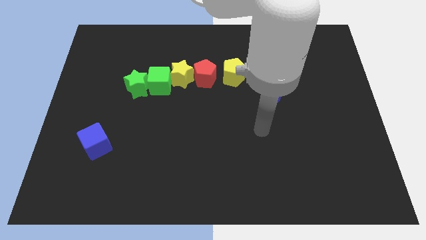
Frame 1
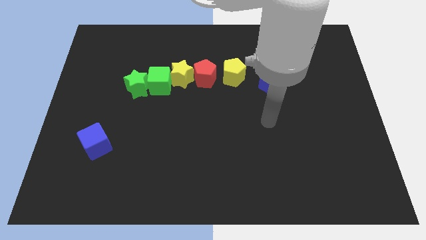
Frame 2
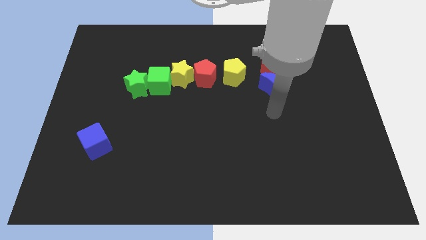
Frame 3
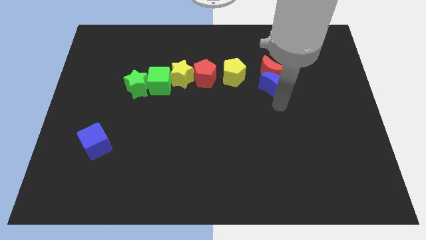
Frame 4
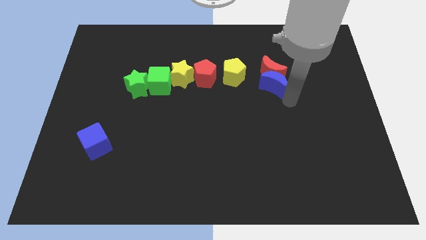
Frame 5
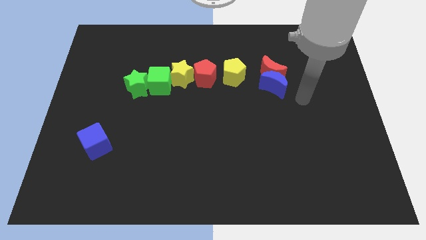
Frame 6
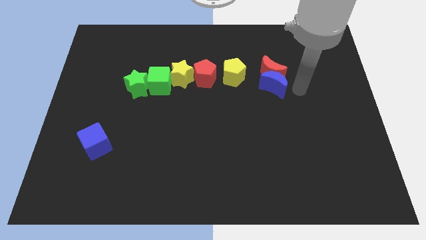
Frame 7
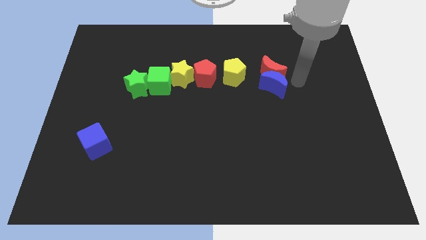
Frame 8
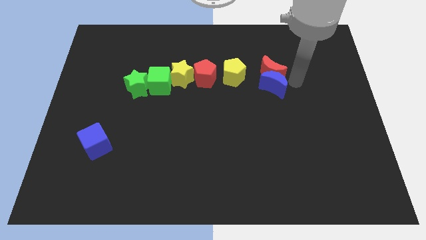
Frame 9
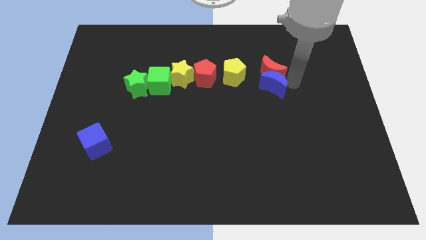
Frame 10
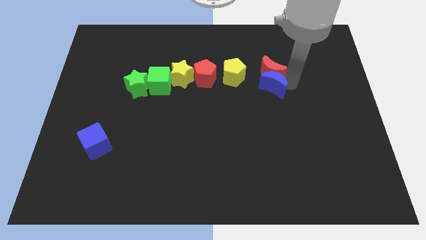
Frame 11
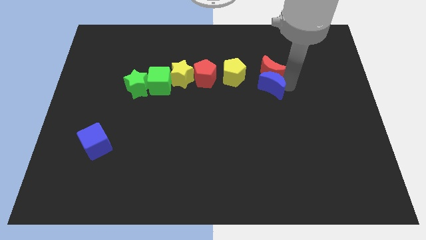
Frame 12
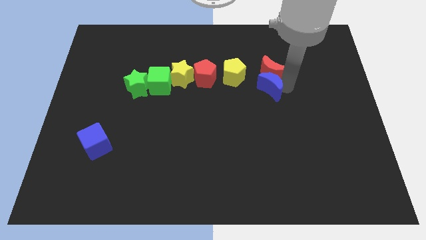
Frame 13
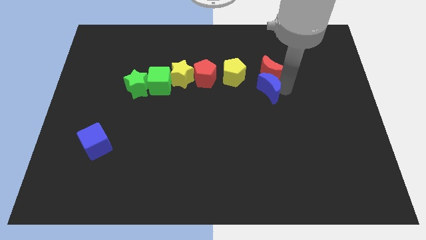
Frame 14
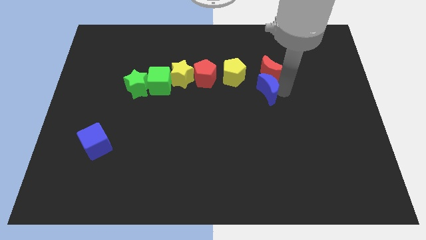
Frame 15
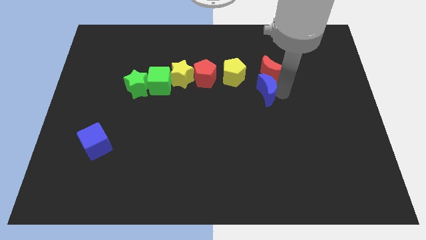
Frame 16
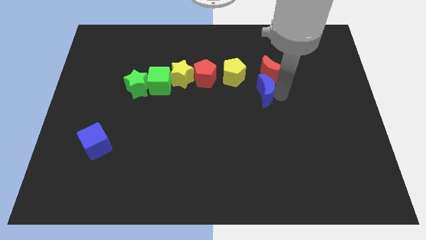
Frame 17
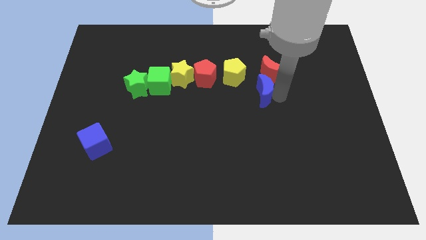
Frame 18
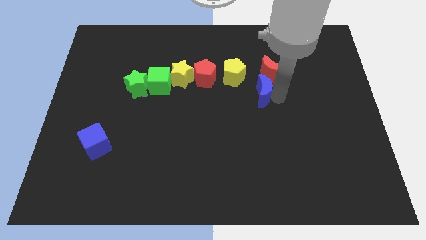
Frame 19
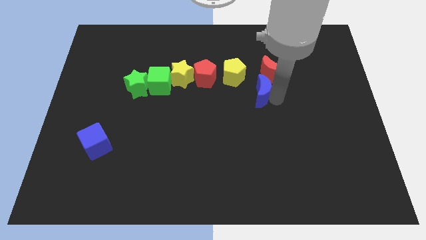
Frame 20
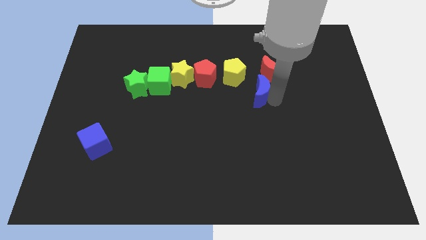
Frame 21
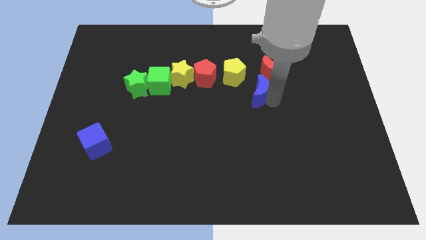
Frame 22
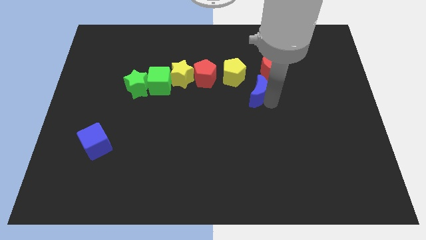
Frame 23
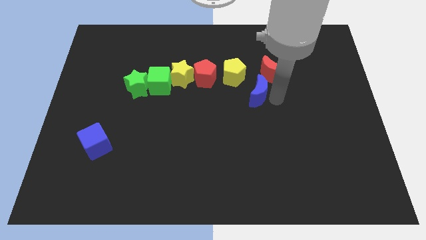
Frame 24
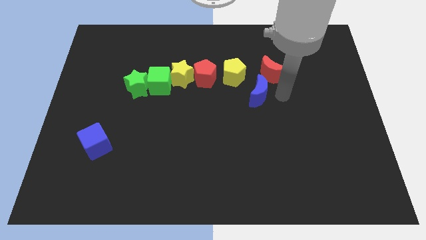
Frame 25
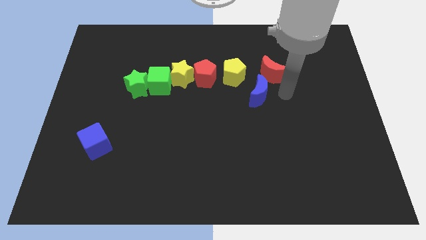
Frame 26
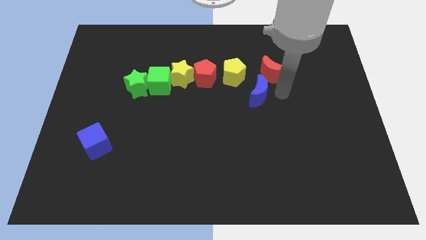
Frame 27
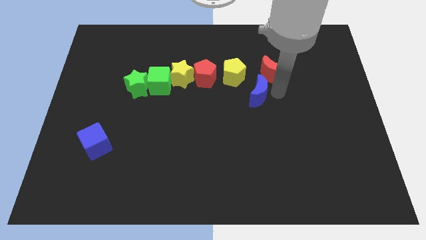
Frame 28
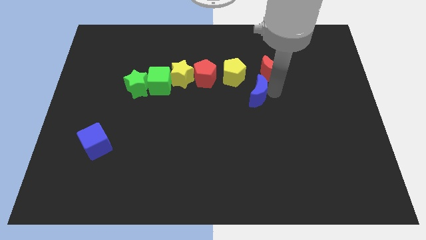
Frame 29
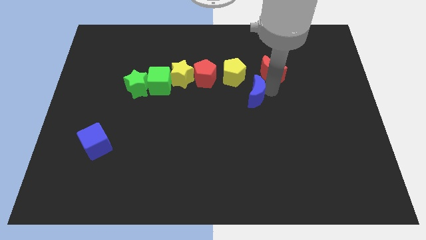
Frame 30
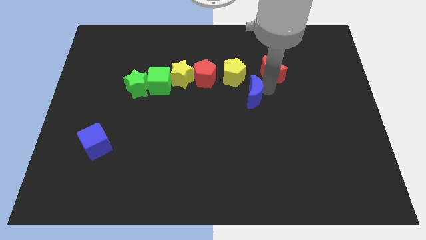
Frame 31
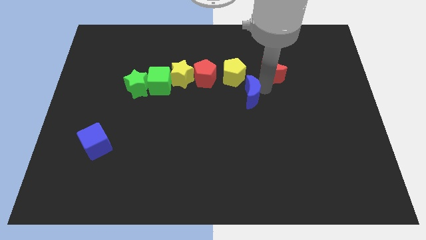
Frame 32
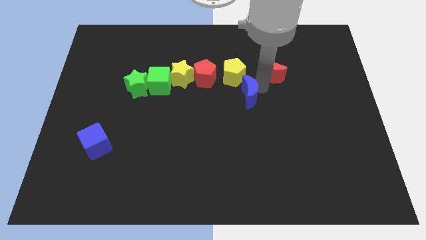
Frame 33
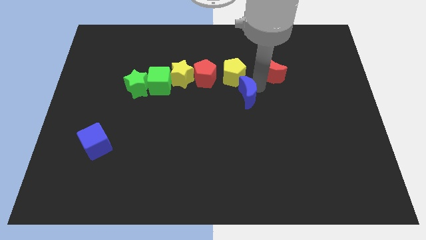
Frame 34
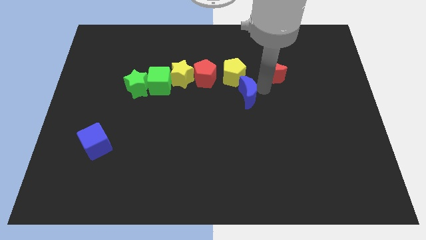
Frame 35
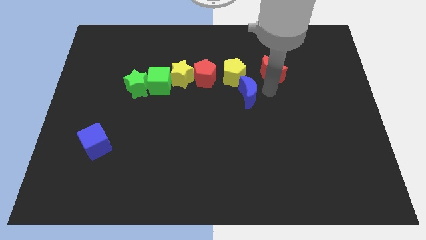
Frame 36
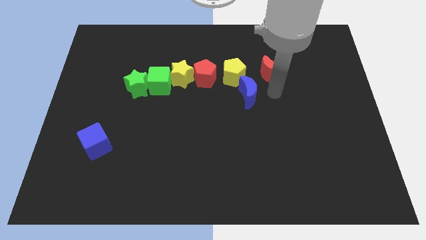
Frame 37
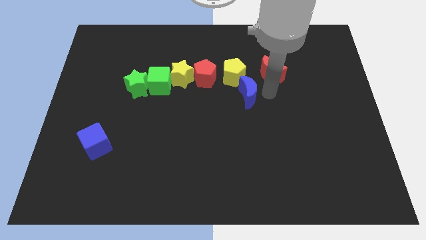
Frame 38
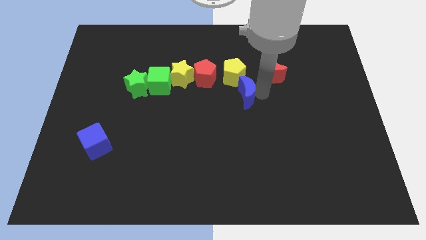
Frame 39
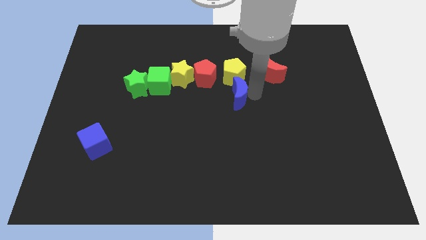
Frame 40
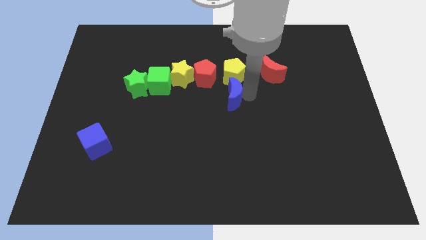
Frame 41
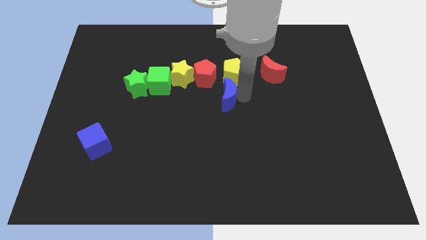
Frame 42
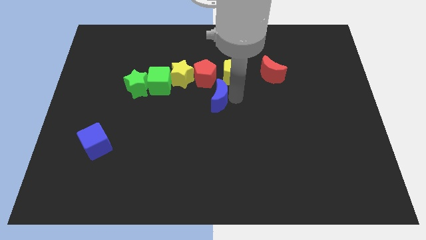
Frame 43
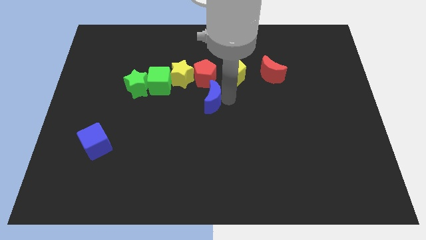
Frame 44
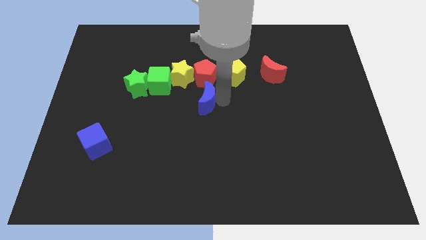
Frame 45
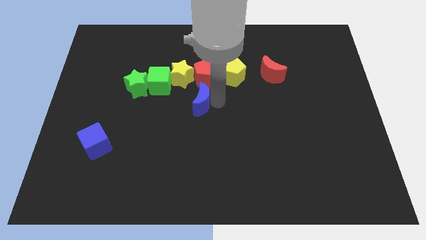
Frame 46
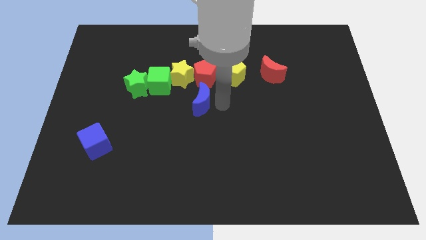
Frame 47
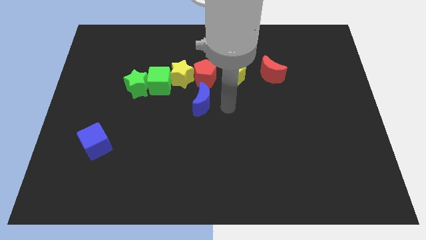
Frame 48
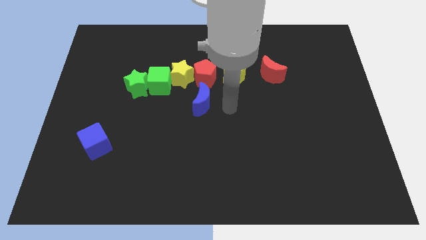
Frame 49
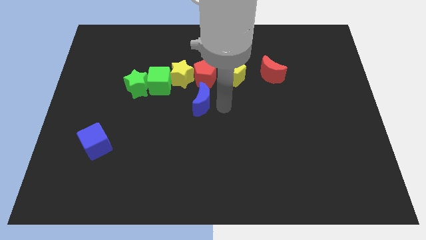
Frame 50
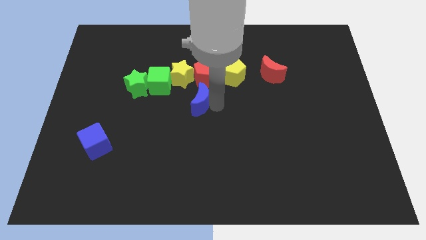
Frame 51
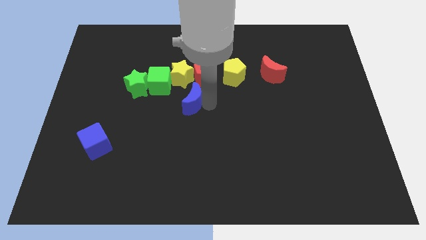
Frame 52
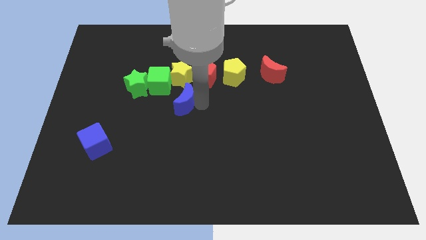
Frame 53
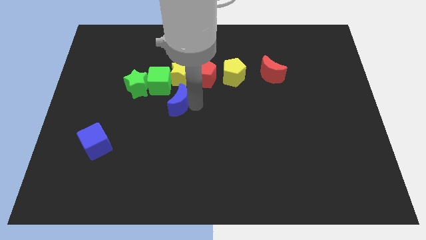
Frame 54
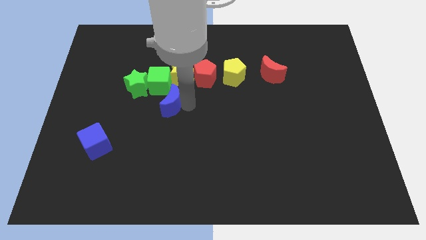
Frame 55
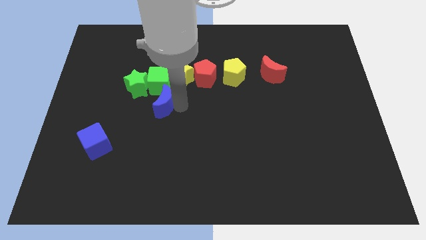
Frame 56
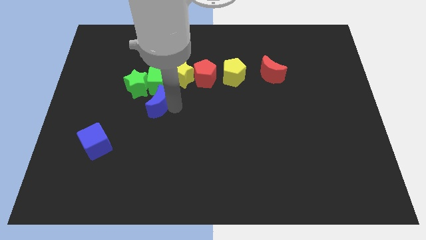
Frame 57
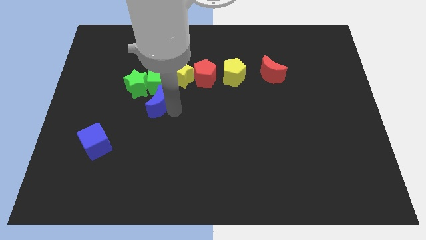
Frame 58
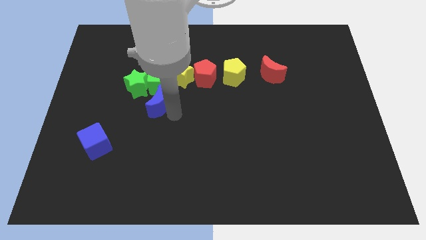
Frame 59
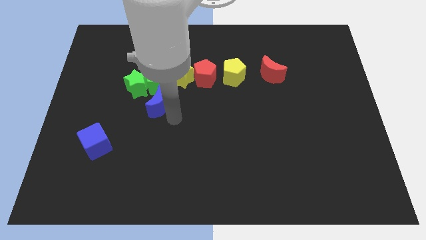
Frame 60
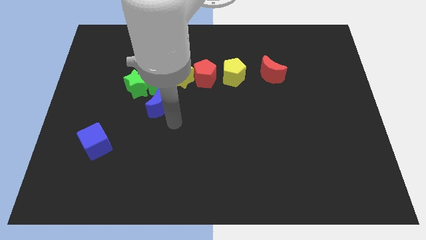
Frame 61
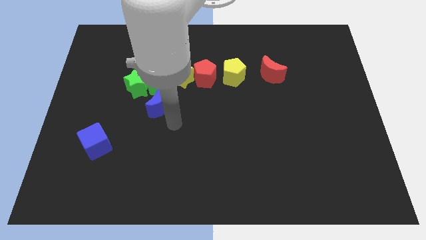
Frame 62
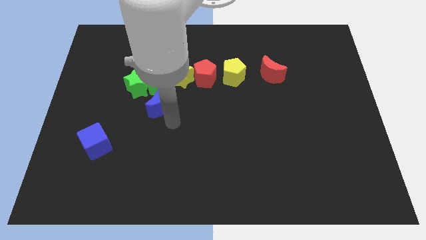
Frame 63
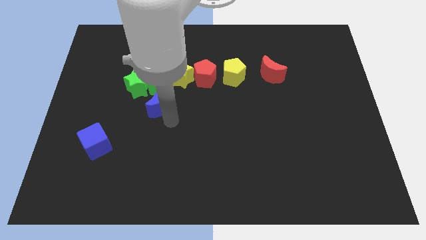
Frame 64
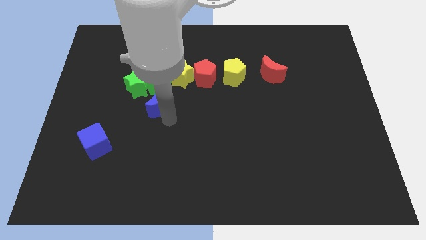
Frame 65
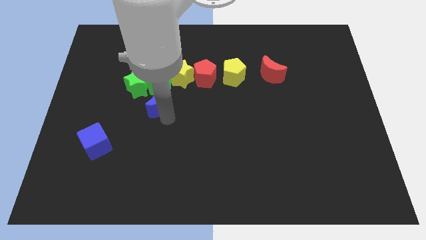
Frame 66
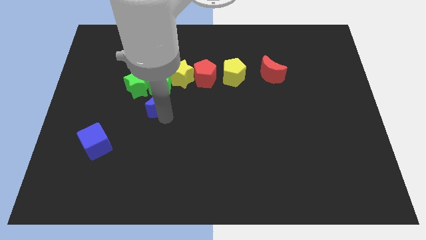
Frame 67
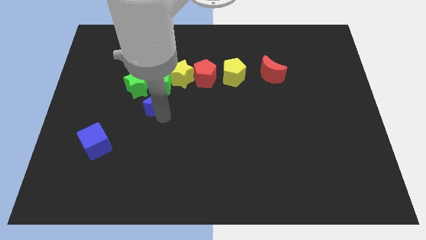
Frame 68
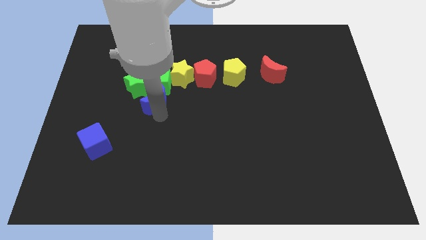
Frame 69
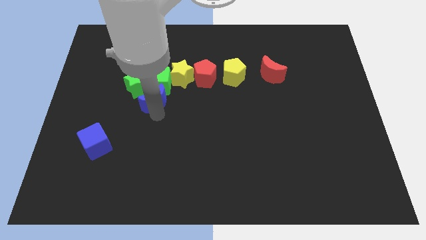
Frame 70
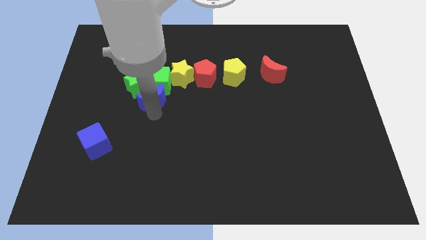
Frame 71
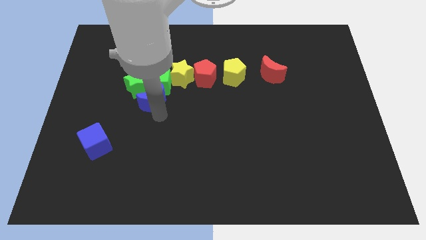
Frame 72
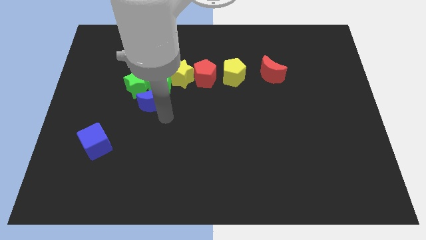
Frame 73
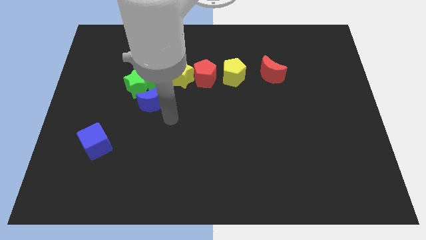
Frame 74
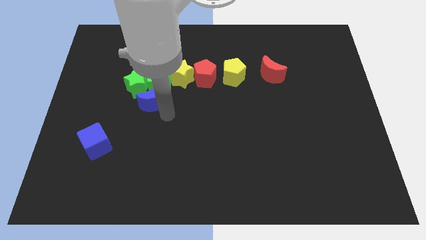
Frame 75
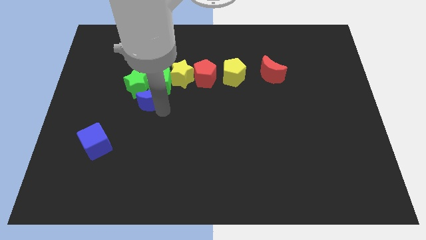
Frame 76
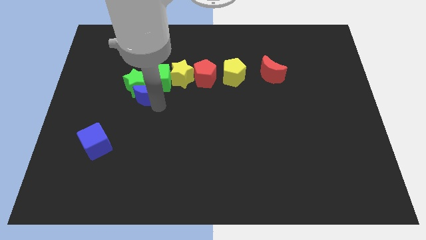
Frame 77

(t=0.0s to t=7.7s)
move the blue moon close to the green star

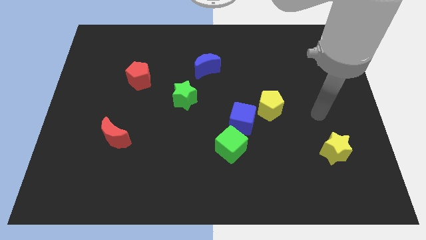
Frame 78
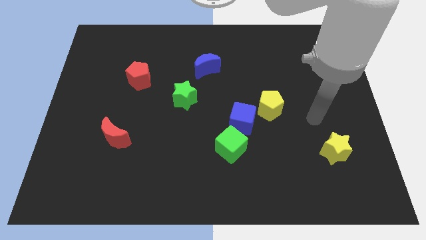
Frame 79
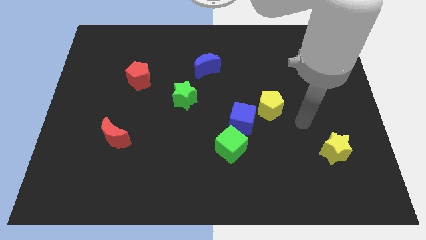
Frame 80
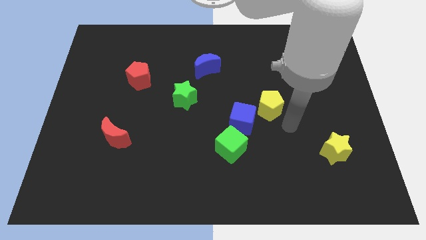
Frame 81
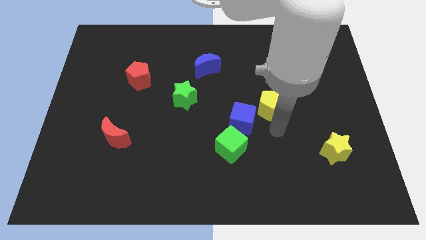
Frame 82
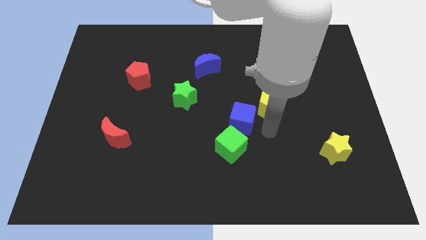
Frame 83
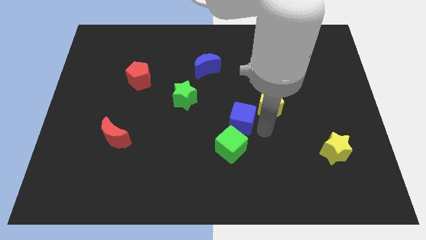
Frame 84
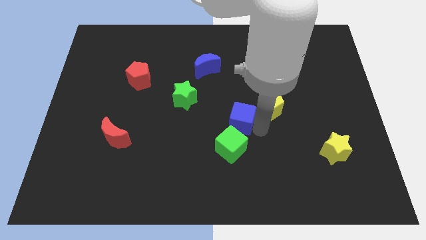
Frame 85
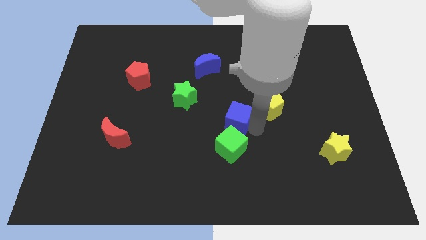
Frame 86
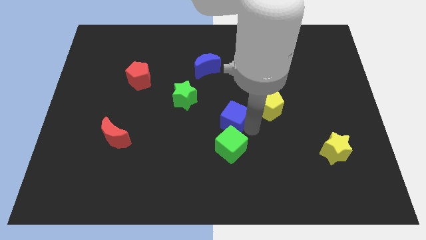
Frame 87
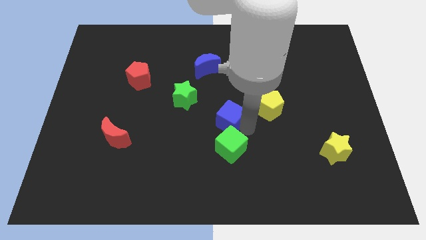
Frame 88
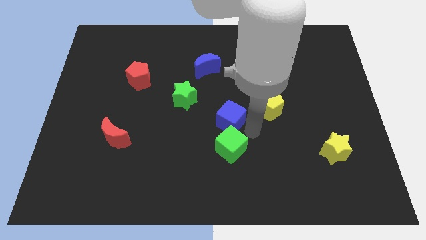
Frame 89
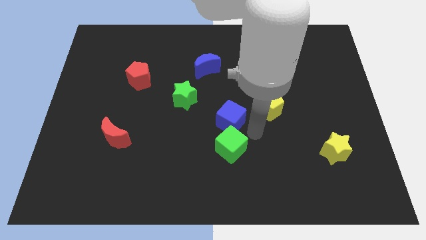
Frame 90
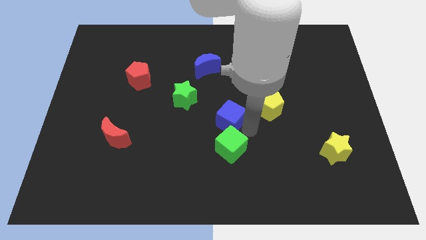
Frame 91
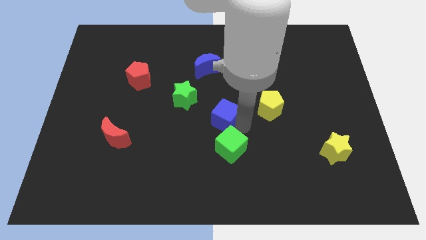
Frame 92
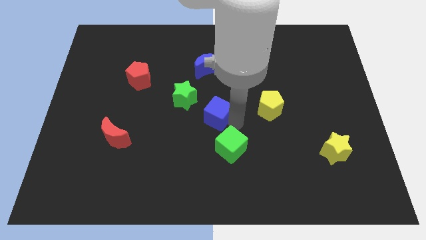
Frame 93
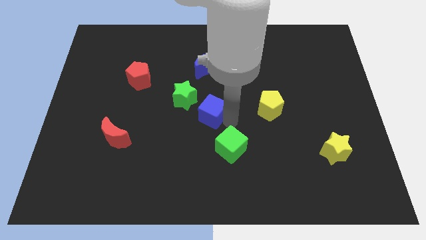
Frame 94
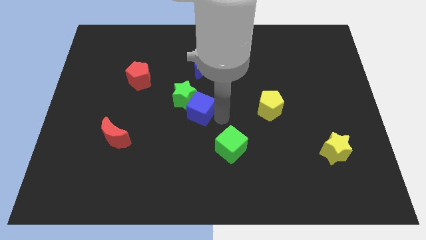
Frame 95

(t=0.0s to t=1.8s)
put the blue cube next to the green star
